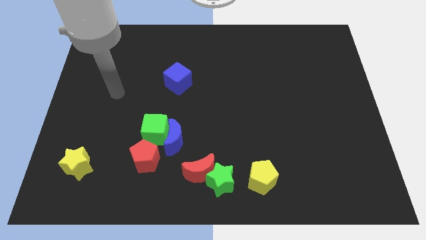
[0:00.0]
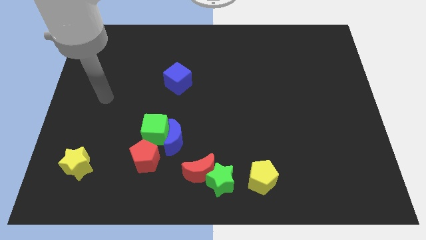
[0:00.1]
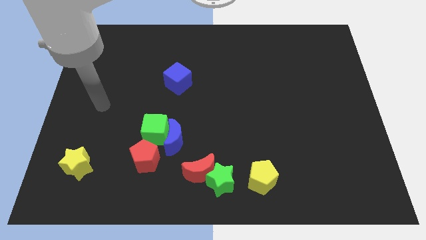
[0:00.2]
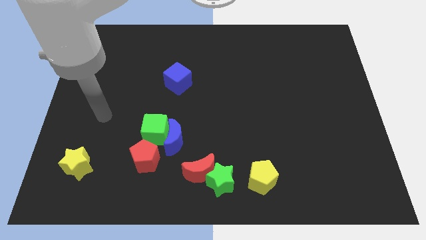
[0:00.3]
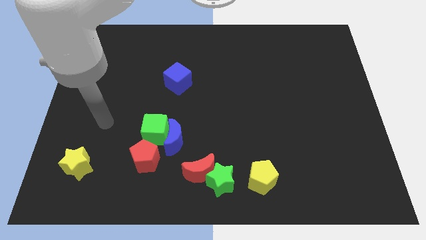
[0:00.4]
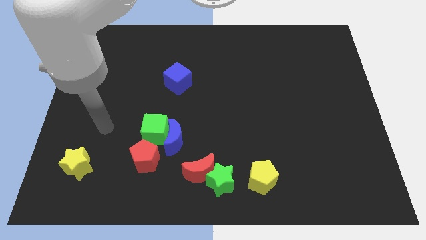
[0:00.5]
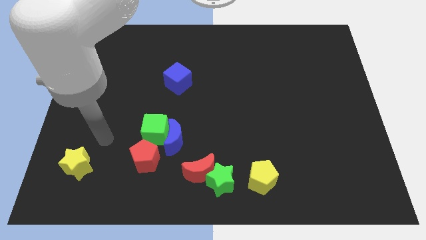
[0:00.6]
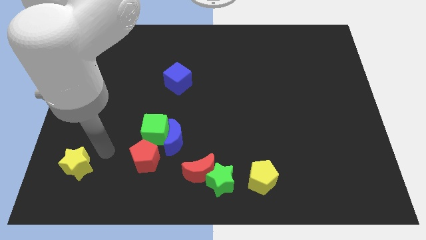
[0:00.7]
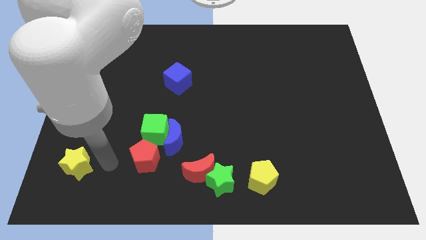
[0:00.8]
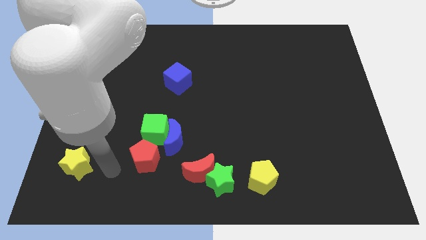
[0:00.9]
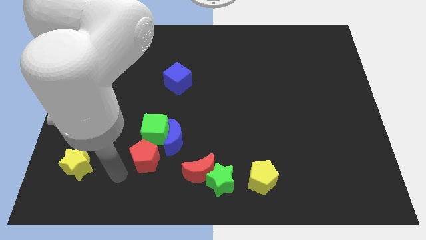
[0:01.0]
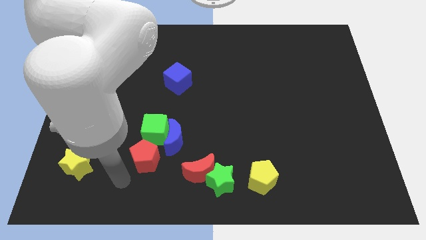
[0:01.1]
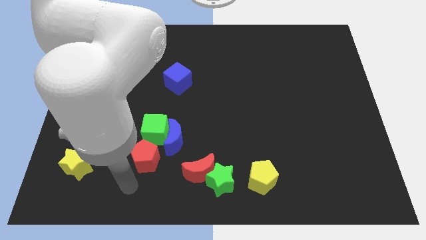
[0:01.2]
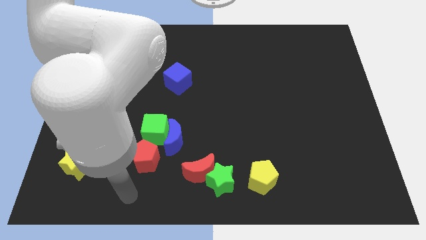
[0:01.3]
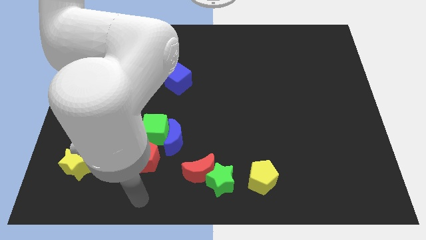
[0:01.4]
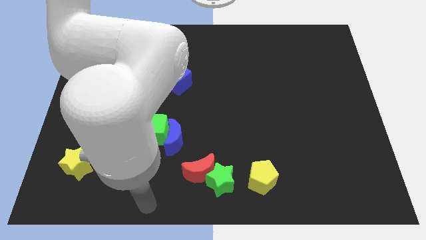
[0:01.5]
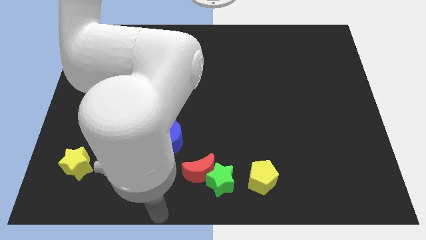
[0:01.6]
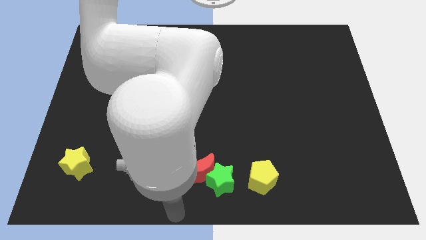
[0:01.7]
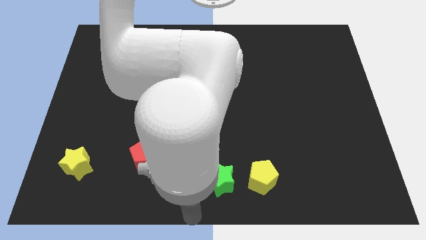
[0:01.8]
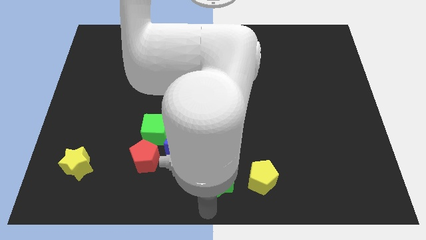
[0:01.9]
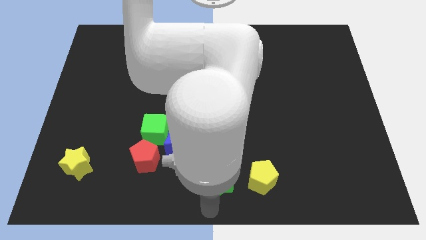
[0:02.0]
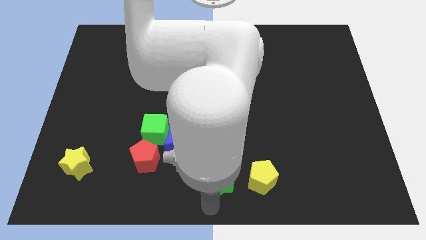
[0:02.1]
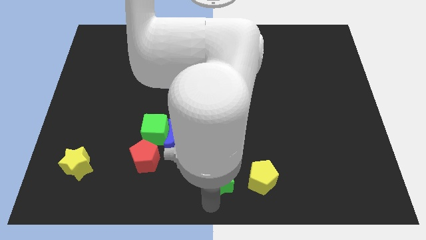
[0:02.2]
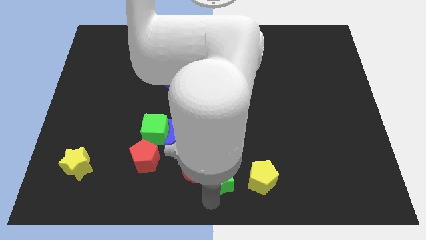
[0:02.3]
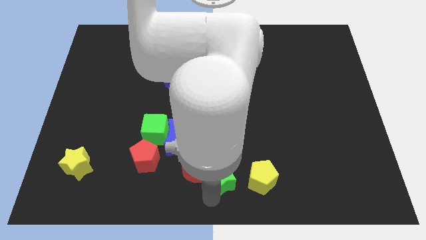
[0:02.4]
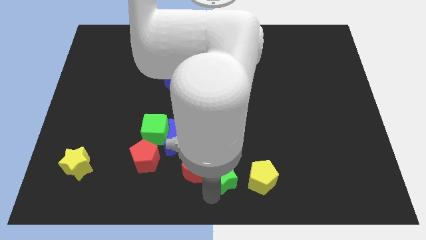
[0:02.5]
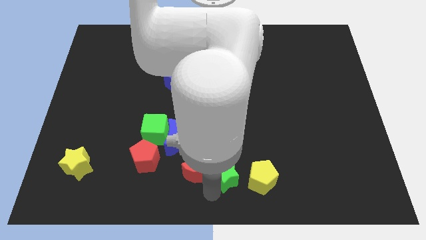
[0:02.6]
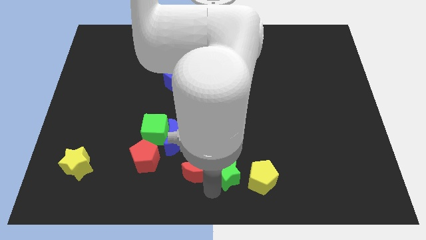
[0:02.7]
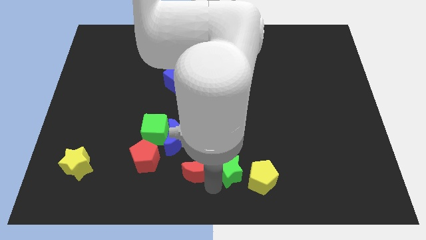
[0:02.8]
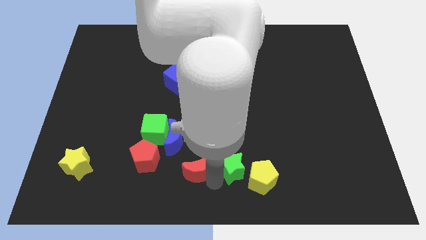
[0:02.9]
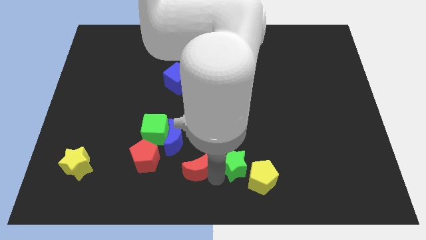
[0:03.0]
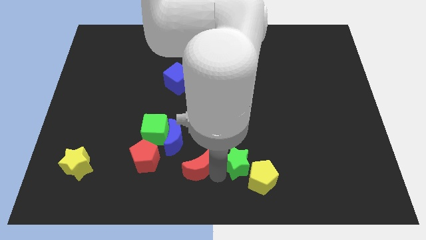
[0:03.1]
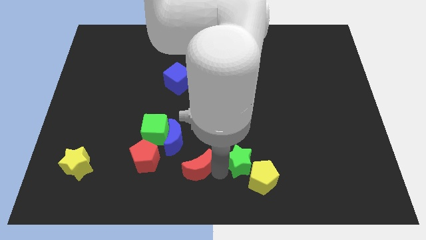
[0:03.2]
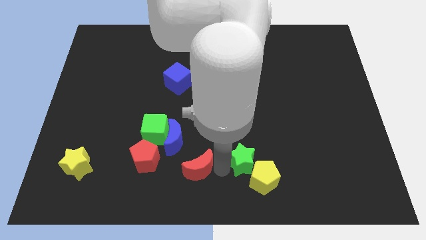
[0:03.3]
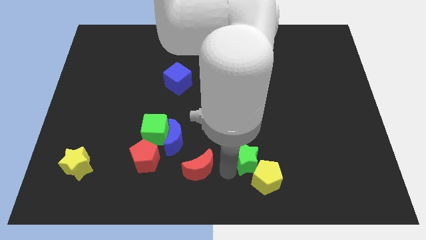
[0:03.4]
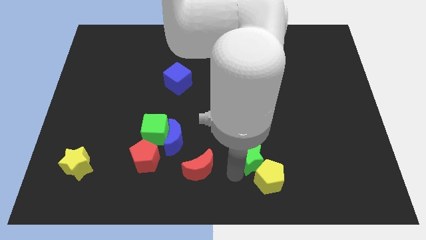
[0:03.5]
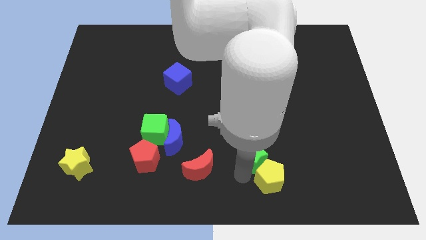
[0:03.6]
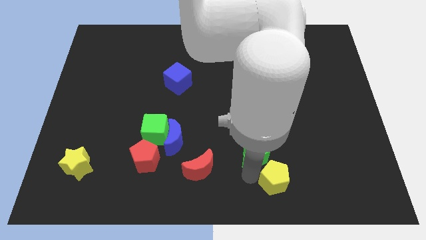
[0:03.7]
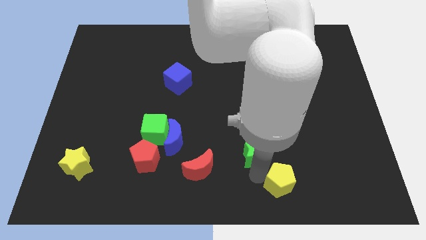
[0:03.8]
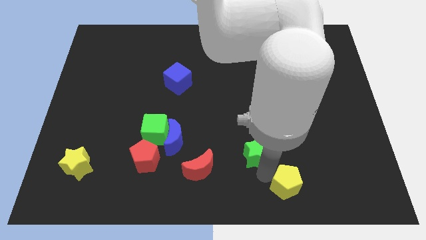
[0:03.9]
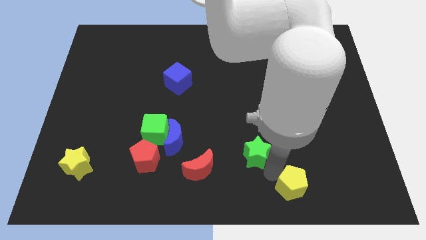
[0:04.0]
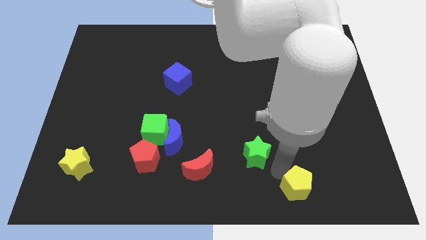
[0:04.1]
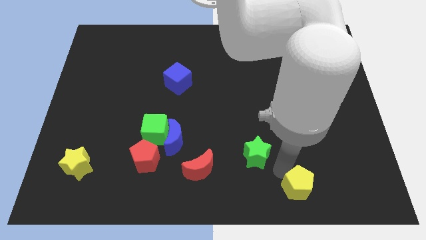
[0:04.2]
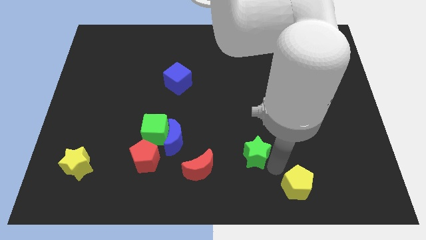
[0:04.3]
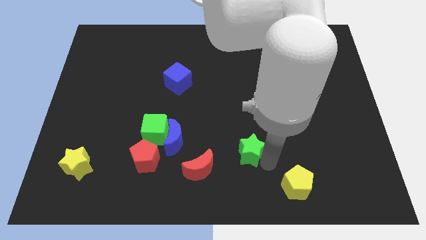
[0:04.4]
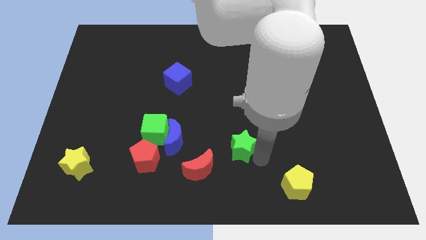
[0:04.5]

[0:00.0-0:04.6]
push the green star a little bit up

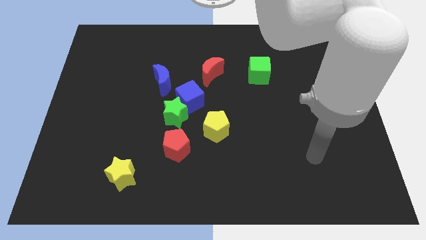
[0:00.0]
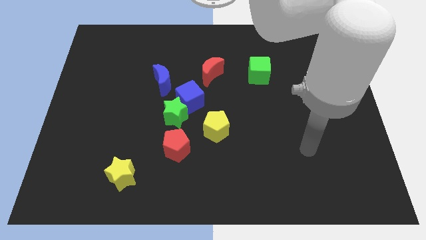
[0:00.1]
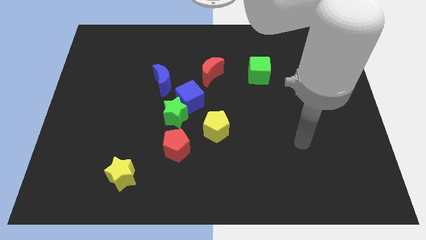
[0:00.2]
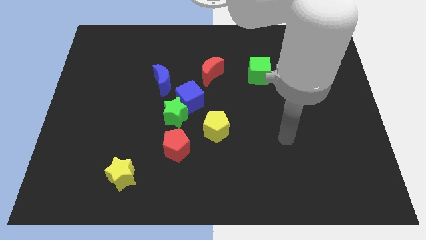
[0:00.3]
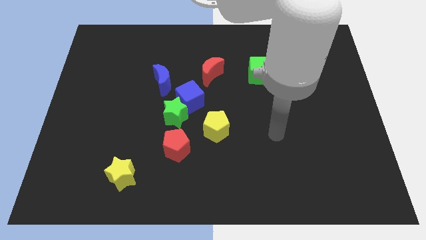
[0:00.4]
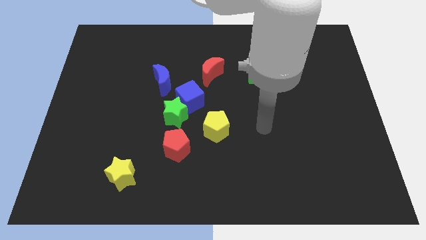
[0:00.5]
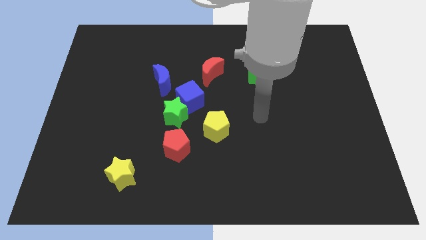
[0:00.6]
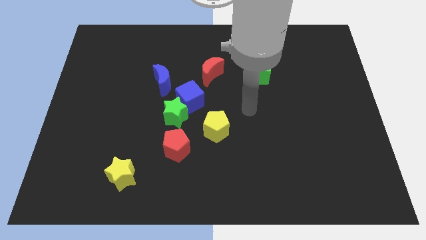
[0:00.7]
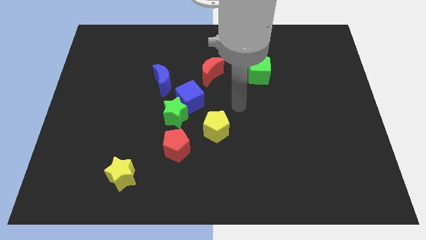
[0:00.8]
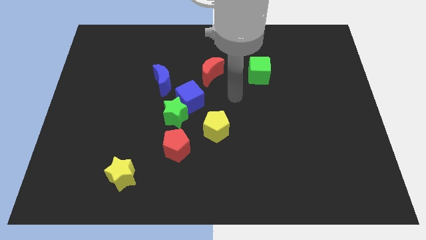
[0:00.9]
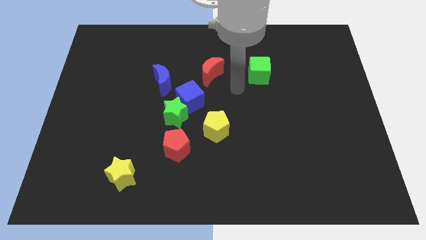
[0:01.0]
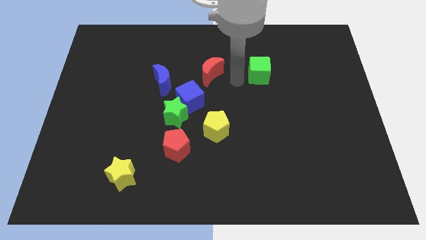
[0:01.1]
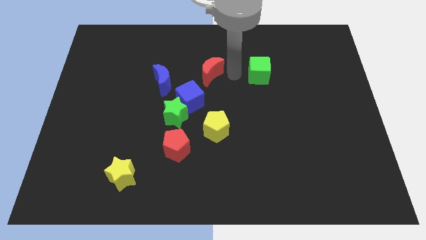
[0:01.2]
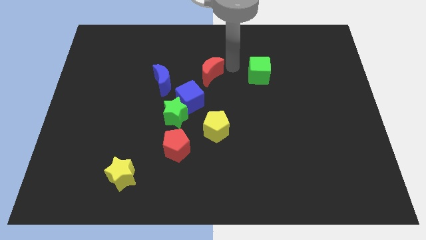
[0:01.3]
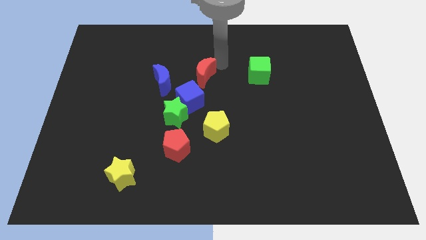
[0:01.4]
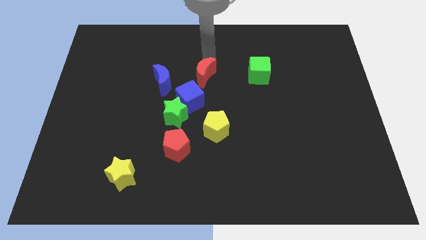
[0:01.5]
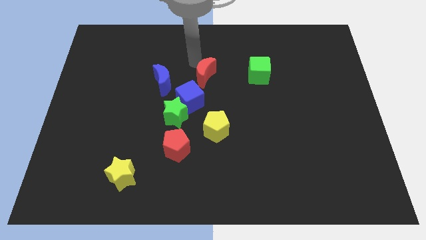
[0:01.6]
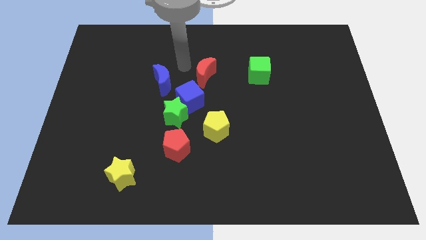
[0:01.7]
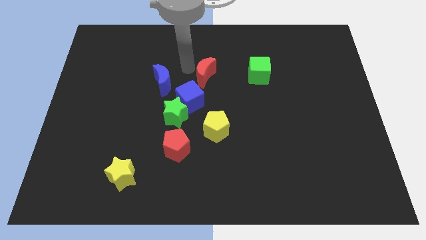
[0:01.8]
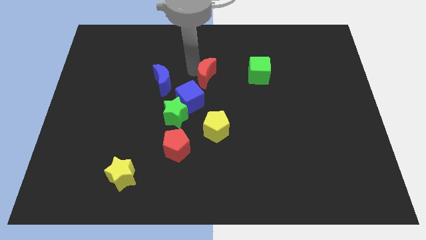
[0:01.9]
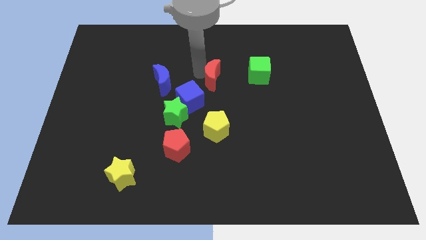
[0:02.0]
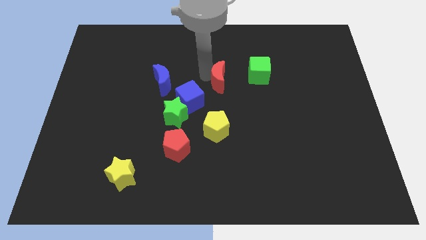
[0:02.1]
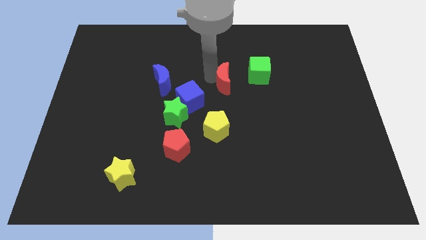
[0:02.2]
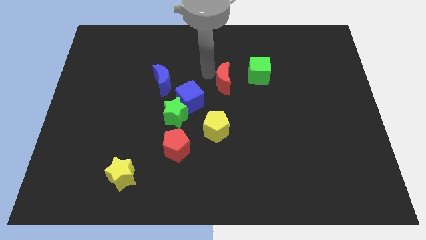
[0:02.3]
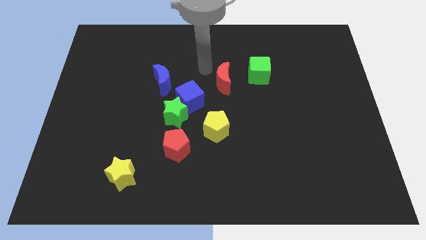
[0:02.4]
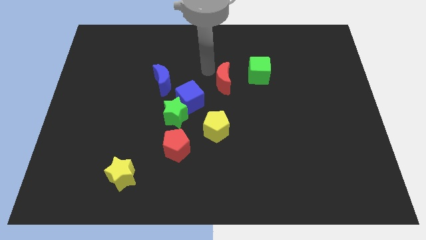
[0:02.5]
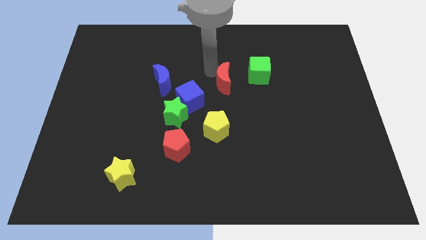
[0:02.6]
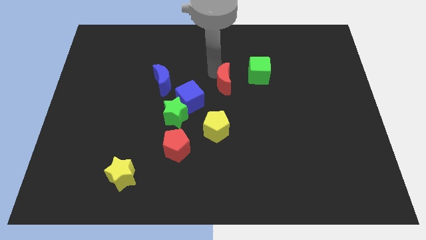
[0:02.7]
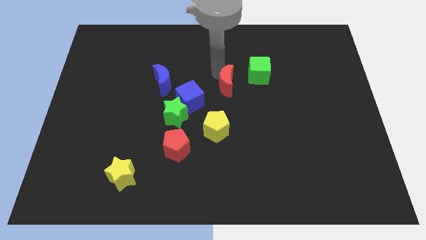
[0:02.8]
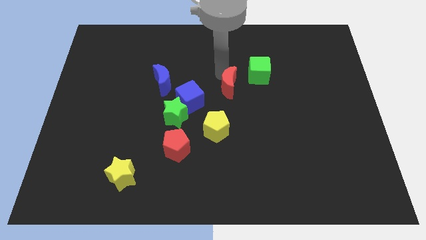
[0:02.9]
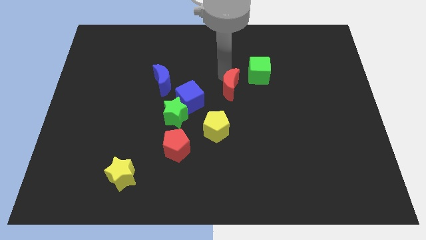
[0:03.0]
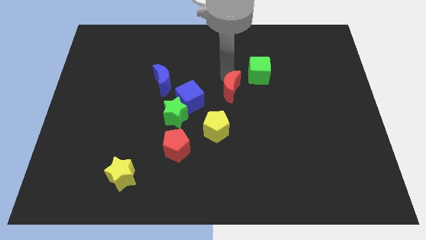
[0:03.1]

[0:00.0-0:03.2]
push the red moon a little diagonally downwards and right

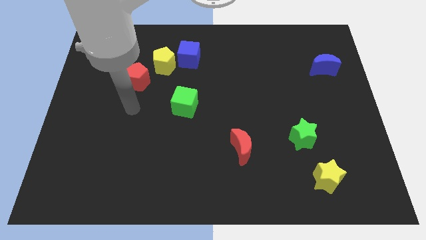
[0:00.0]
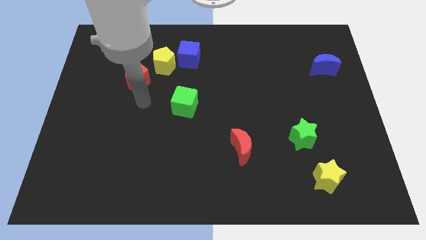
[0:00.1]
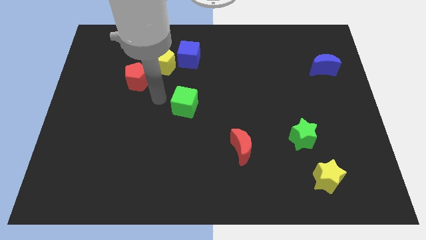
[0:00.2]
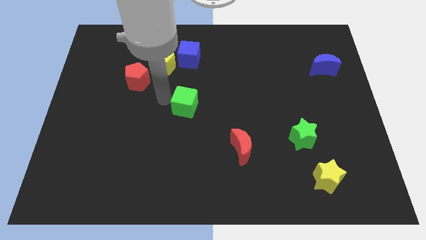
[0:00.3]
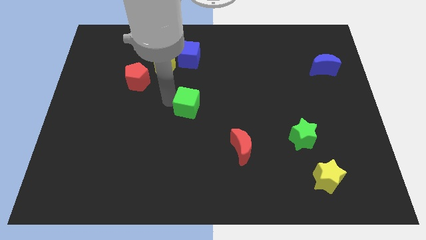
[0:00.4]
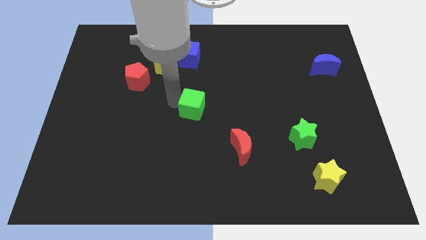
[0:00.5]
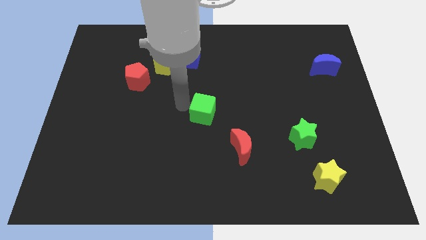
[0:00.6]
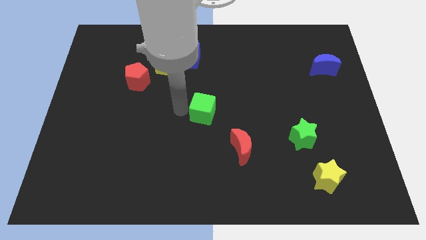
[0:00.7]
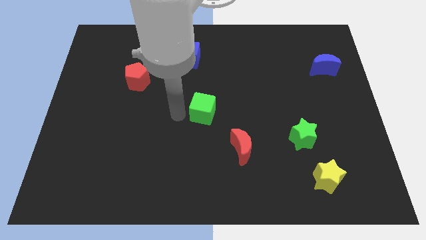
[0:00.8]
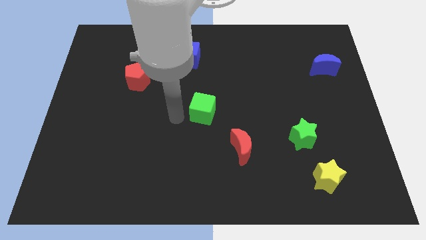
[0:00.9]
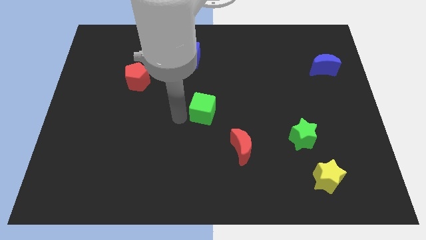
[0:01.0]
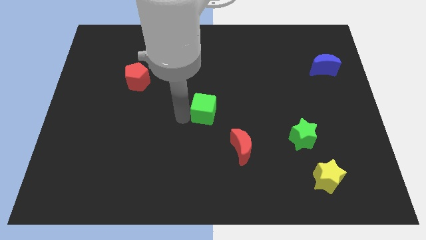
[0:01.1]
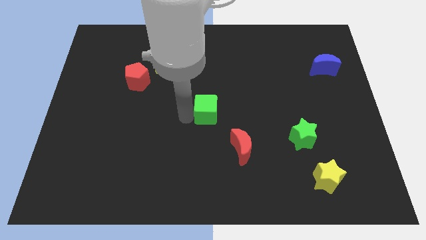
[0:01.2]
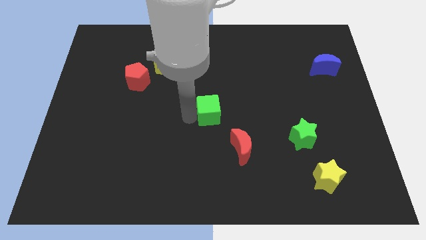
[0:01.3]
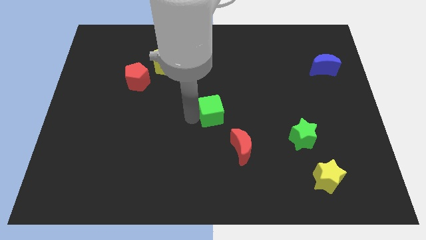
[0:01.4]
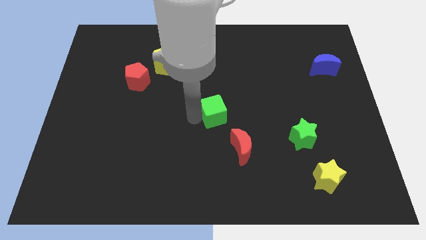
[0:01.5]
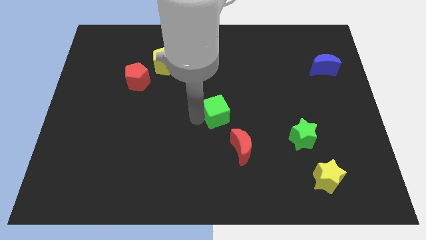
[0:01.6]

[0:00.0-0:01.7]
push the green cube slightly right
